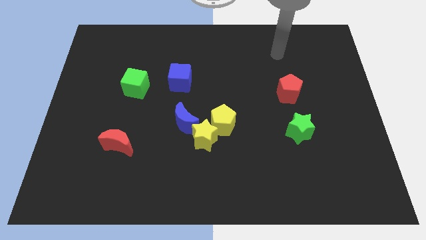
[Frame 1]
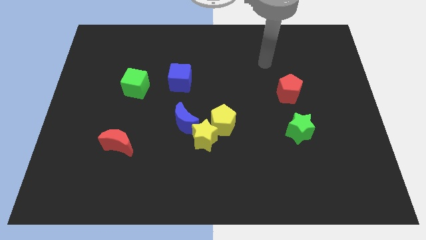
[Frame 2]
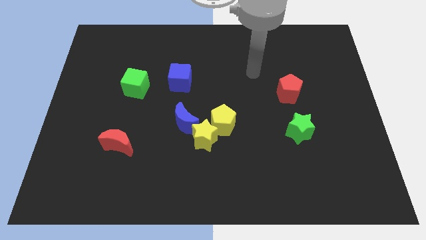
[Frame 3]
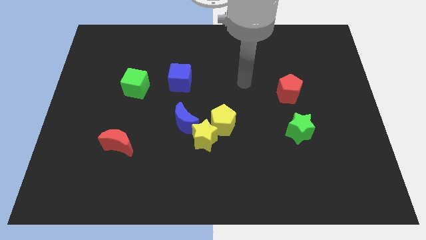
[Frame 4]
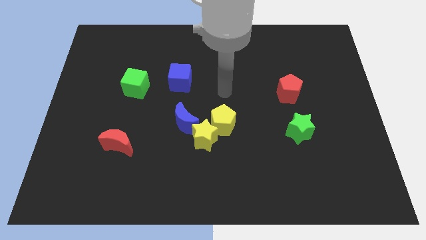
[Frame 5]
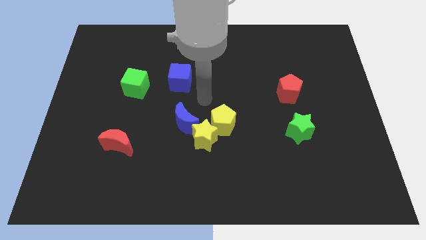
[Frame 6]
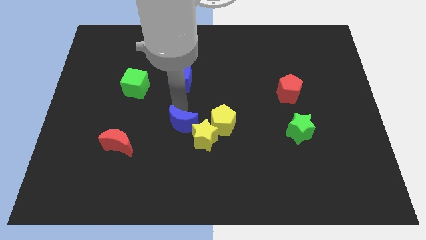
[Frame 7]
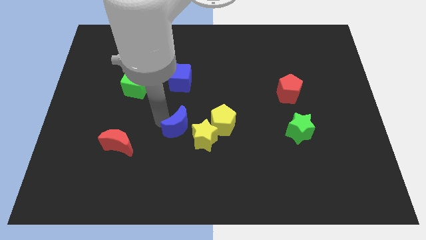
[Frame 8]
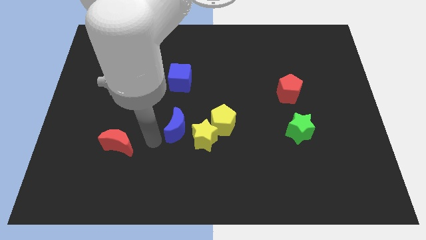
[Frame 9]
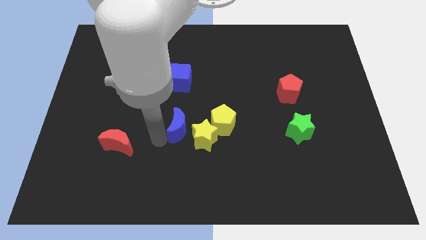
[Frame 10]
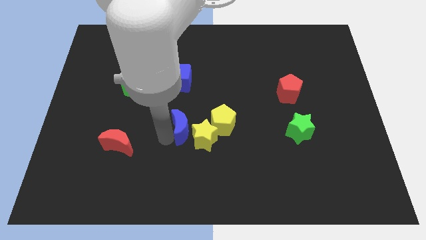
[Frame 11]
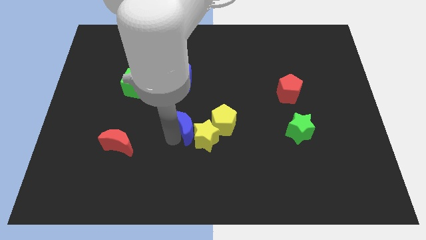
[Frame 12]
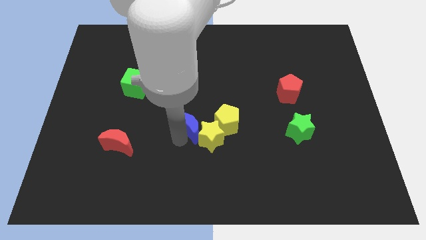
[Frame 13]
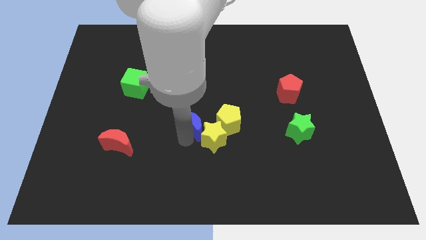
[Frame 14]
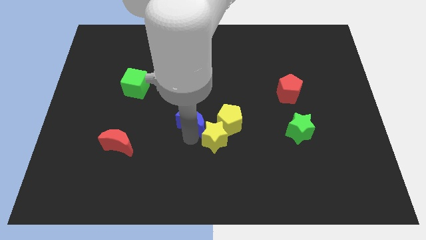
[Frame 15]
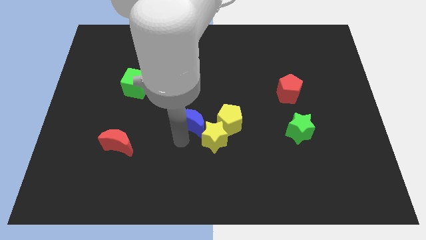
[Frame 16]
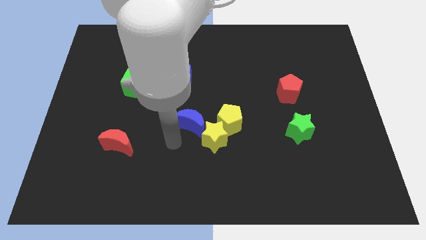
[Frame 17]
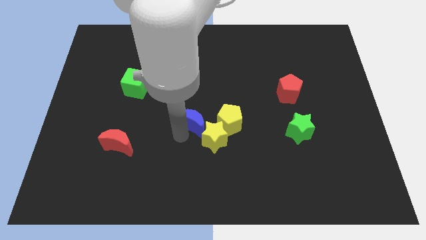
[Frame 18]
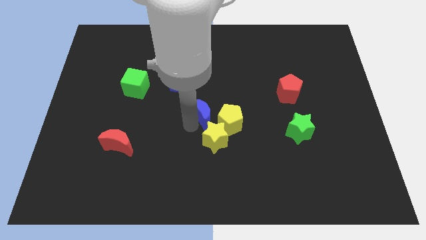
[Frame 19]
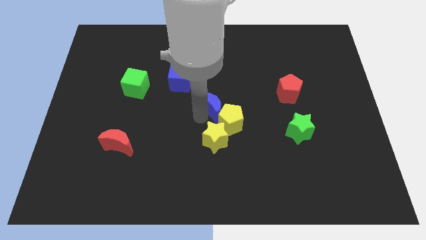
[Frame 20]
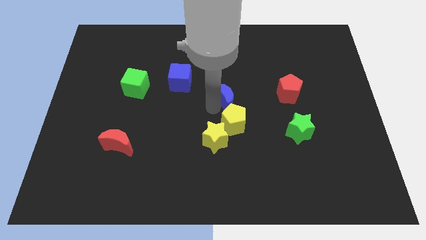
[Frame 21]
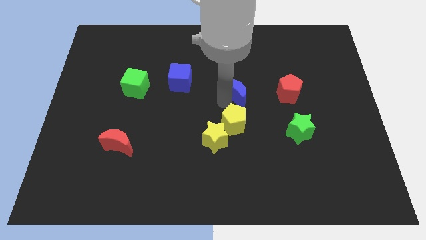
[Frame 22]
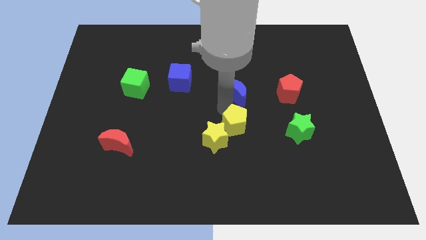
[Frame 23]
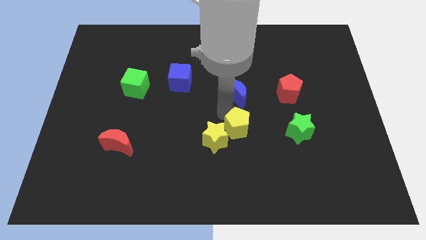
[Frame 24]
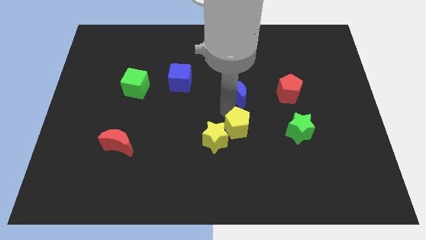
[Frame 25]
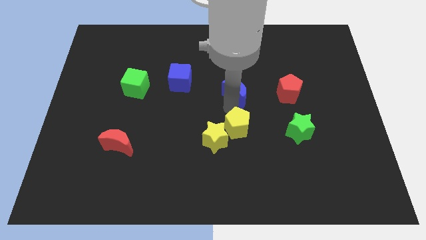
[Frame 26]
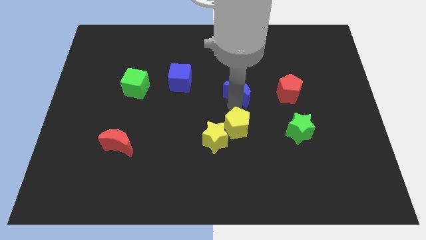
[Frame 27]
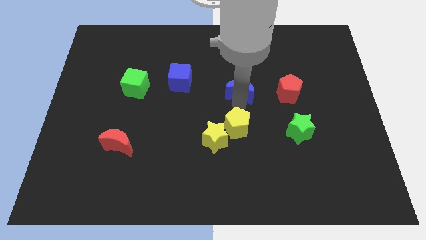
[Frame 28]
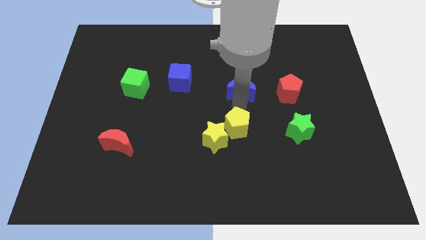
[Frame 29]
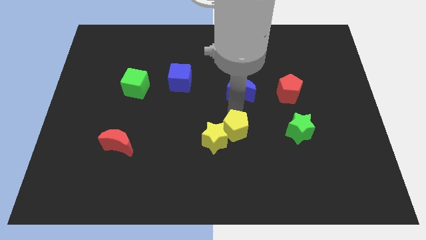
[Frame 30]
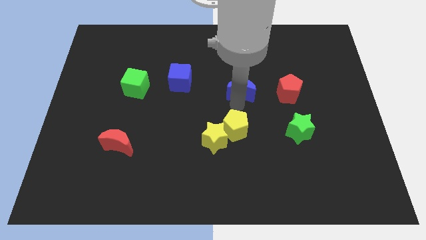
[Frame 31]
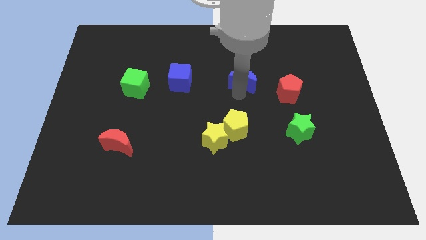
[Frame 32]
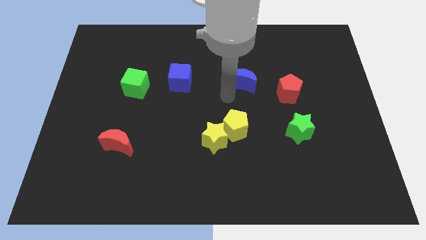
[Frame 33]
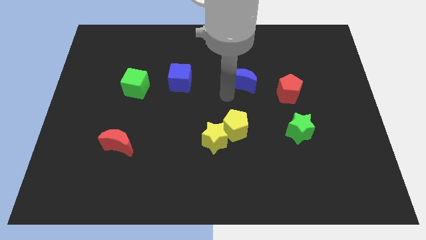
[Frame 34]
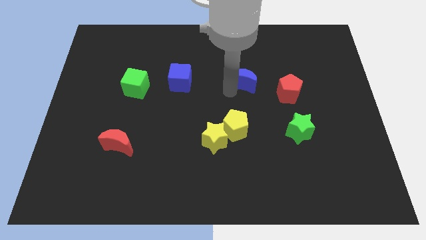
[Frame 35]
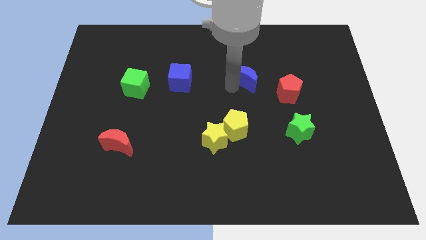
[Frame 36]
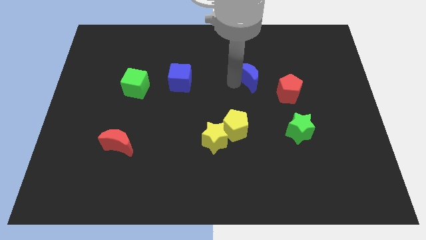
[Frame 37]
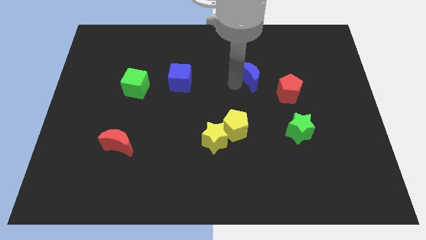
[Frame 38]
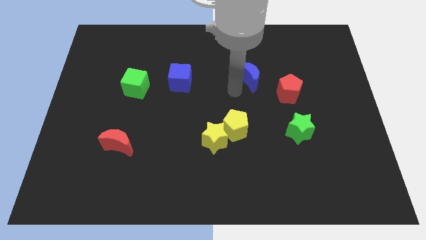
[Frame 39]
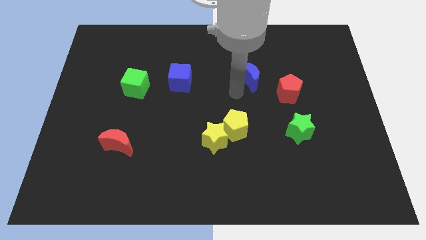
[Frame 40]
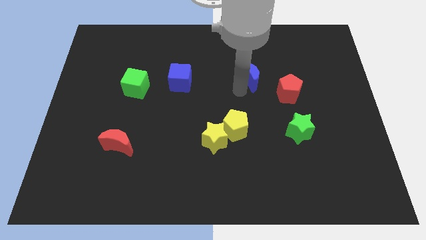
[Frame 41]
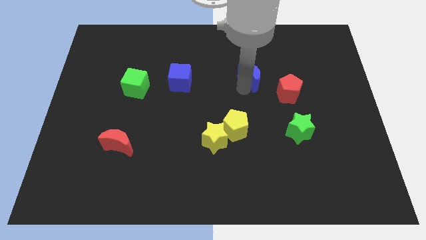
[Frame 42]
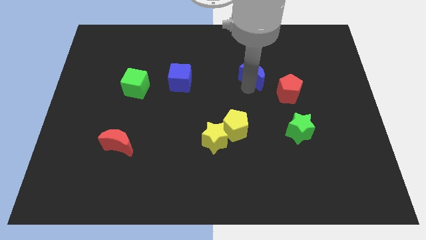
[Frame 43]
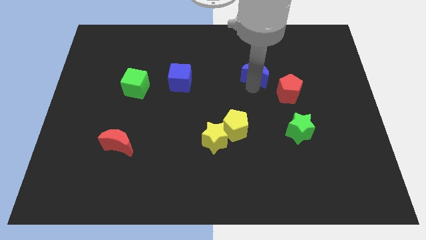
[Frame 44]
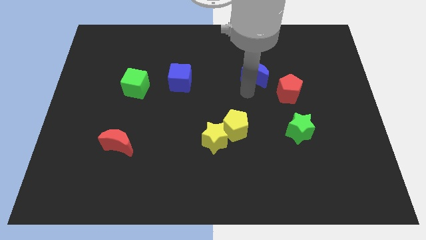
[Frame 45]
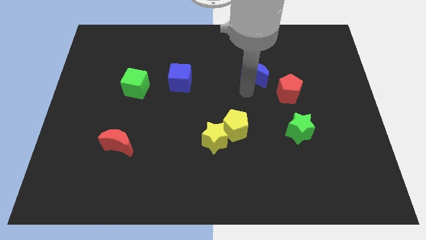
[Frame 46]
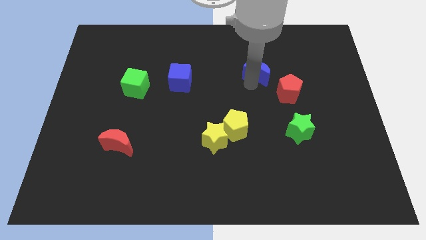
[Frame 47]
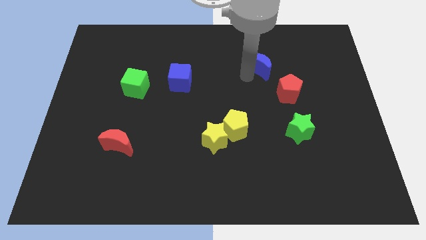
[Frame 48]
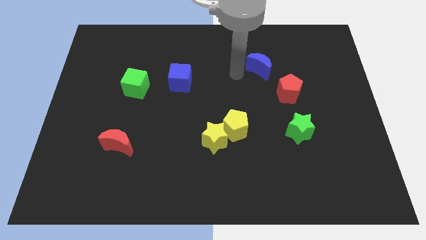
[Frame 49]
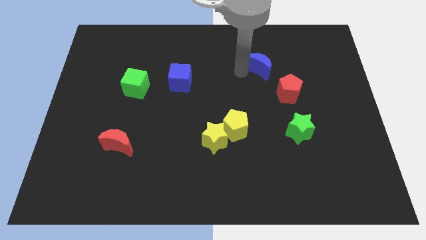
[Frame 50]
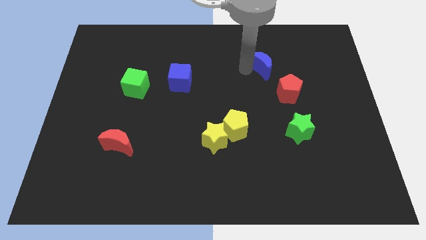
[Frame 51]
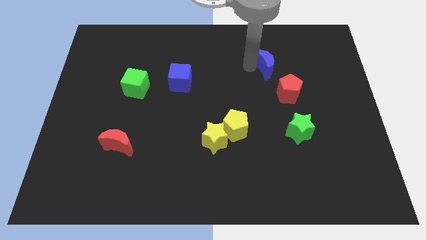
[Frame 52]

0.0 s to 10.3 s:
slide the blue moon above the red pentagon

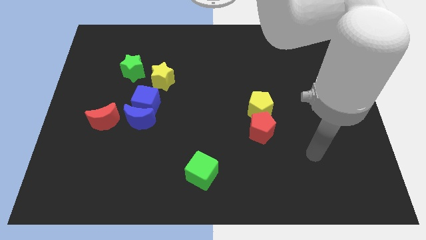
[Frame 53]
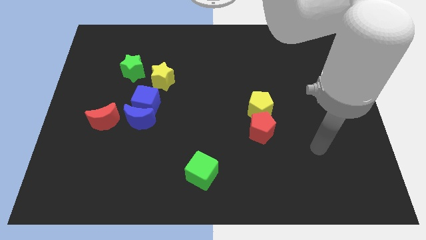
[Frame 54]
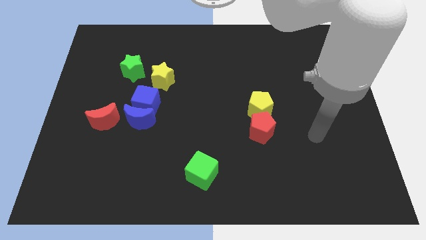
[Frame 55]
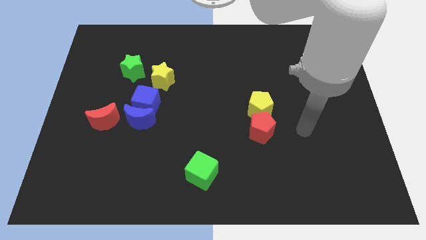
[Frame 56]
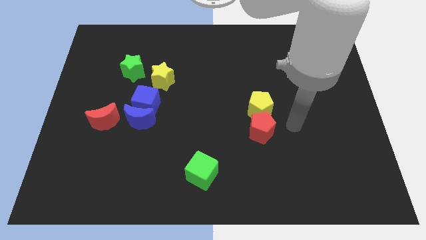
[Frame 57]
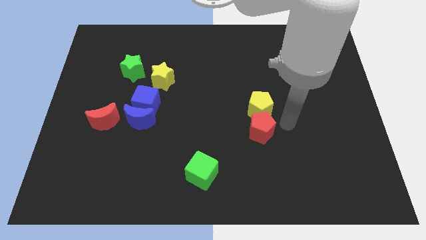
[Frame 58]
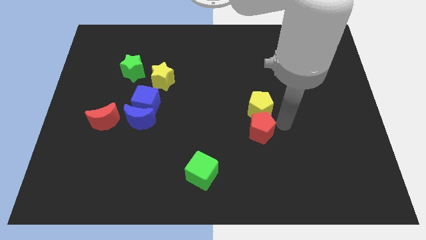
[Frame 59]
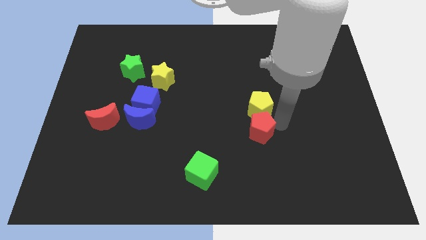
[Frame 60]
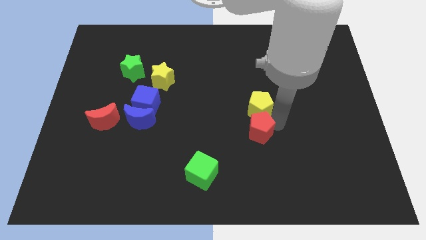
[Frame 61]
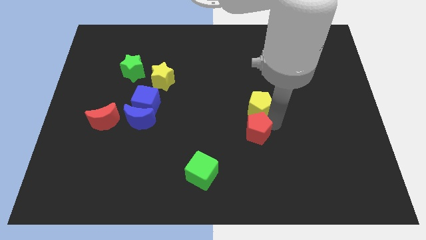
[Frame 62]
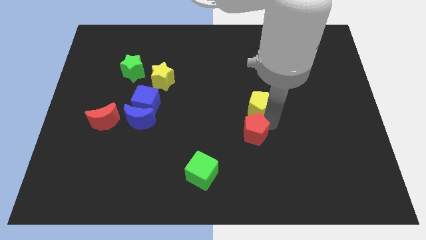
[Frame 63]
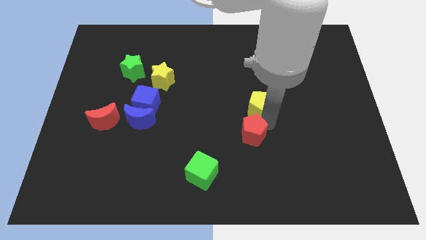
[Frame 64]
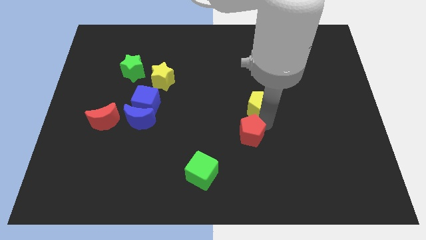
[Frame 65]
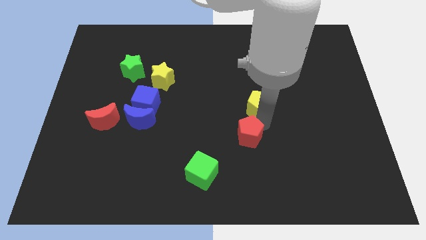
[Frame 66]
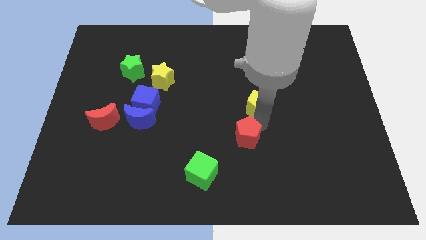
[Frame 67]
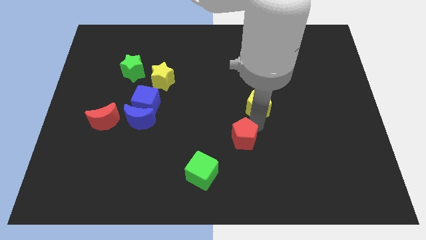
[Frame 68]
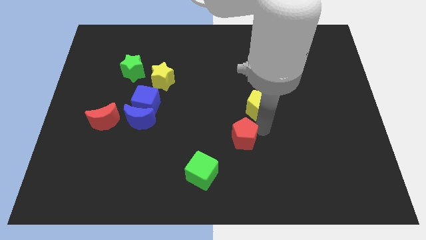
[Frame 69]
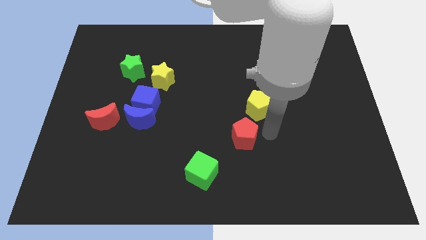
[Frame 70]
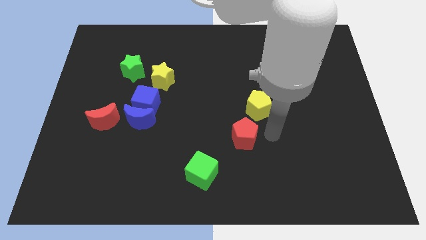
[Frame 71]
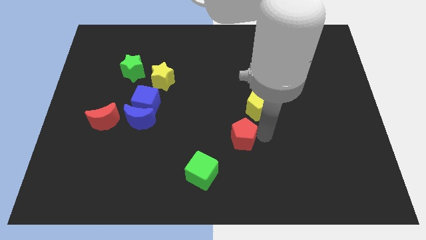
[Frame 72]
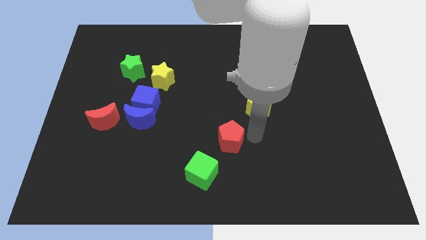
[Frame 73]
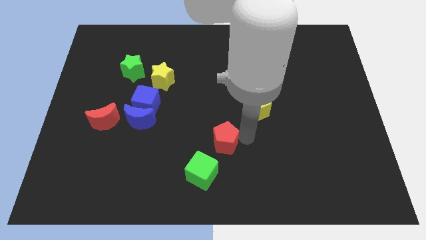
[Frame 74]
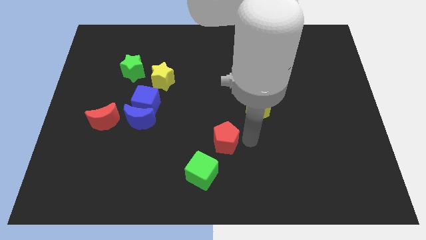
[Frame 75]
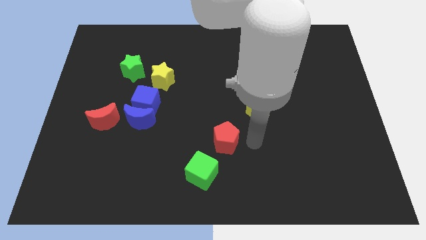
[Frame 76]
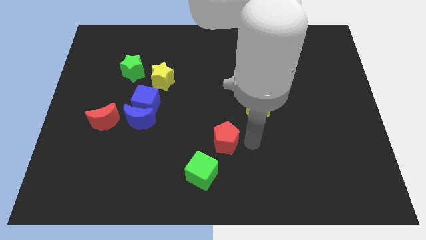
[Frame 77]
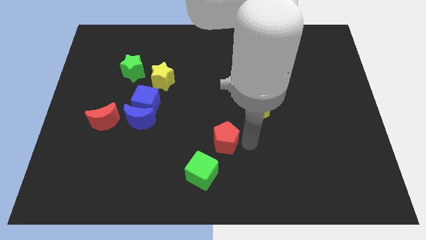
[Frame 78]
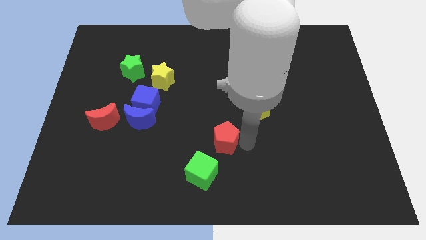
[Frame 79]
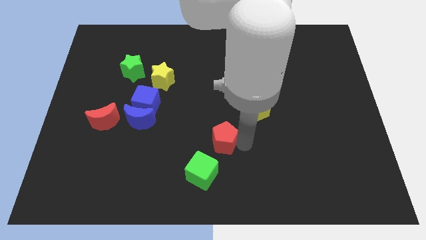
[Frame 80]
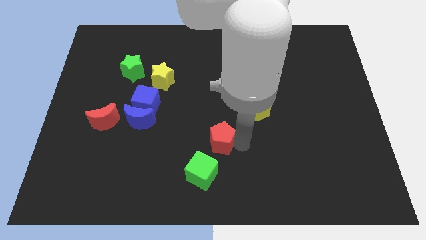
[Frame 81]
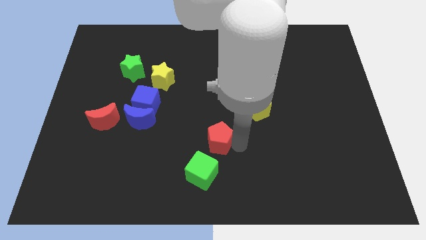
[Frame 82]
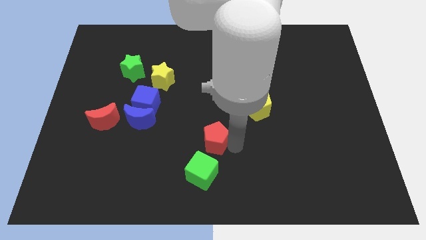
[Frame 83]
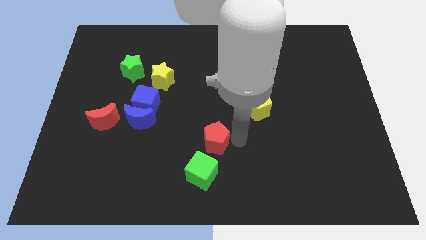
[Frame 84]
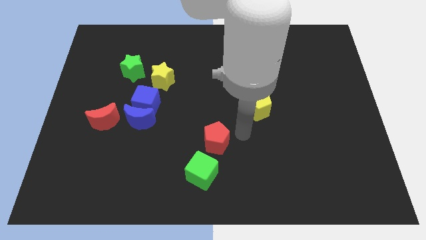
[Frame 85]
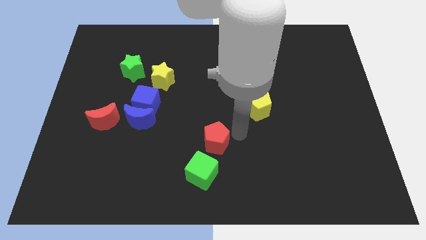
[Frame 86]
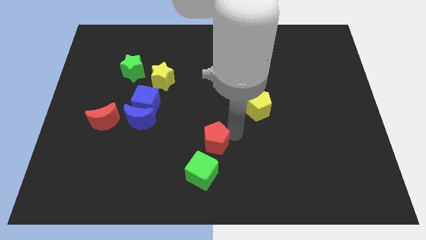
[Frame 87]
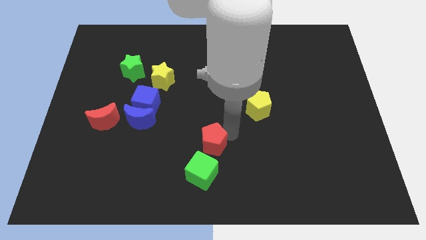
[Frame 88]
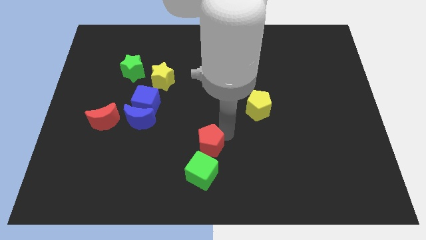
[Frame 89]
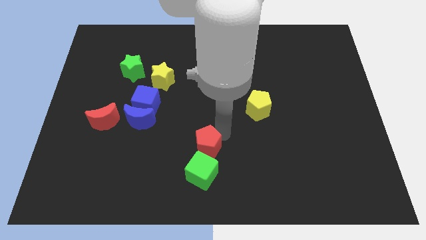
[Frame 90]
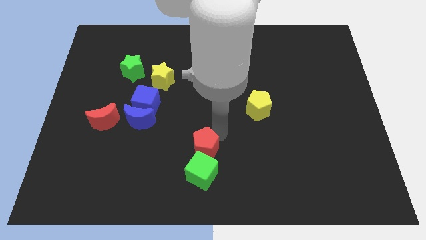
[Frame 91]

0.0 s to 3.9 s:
move the red pentagon to the top left of the green cube
